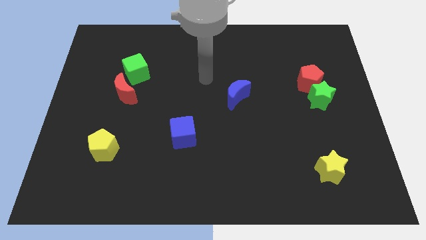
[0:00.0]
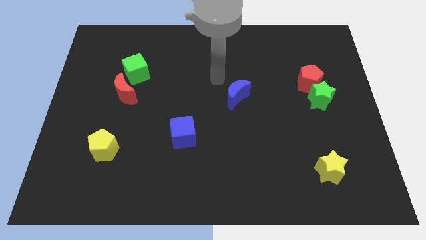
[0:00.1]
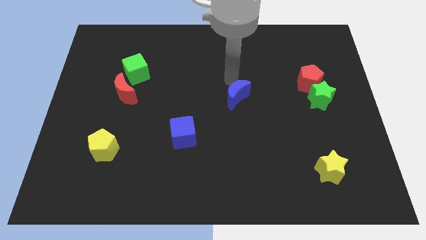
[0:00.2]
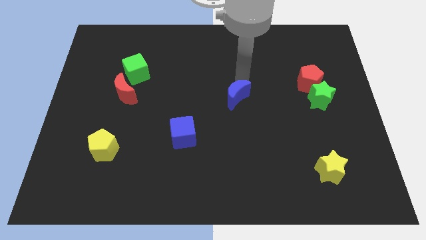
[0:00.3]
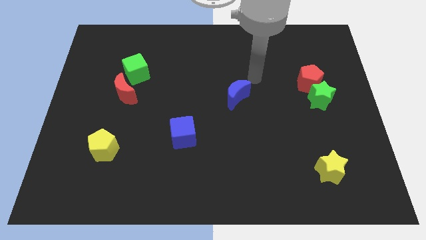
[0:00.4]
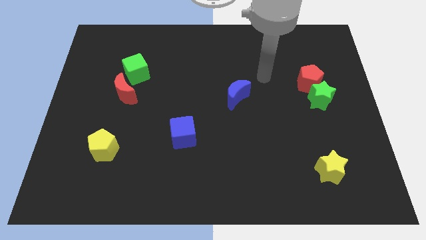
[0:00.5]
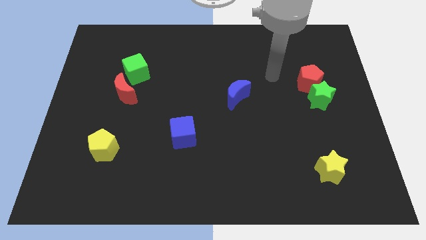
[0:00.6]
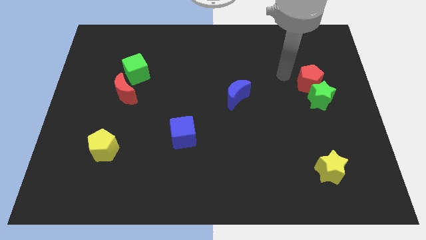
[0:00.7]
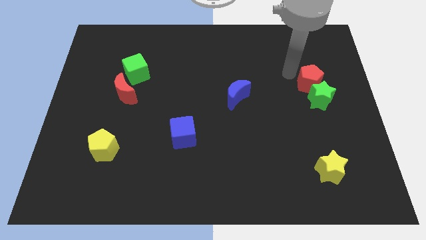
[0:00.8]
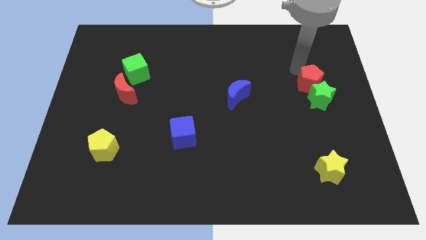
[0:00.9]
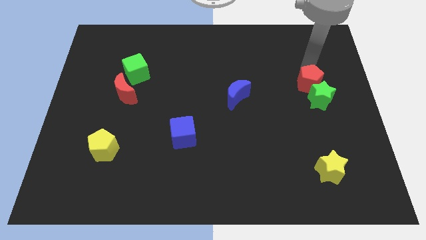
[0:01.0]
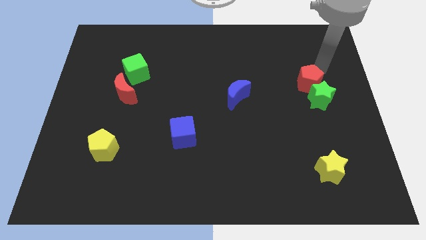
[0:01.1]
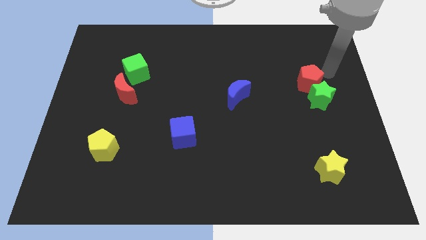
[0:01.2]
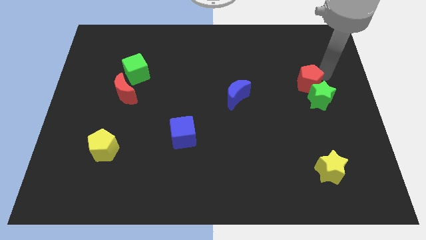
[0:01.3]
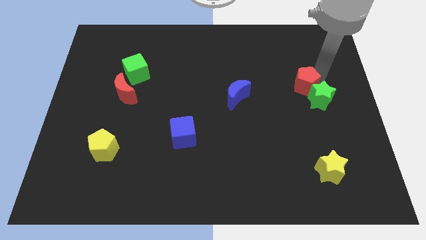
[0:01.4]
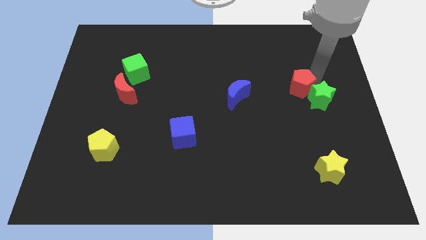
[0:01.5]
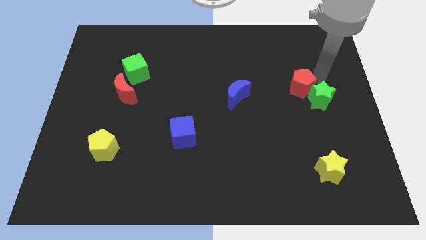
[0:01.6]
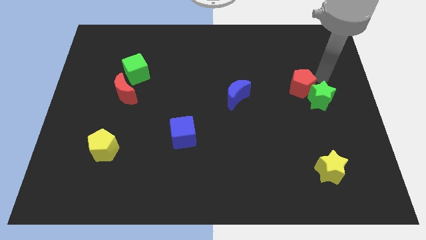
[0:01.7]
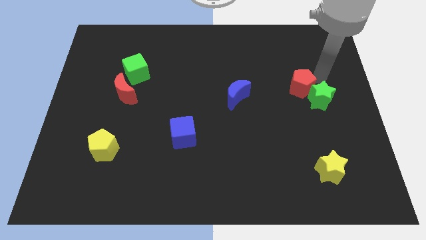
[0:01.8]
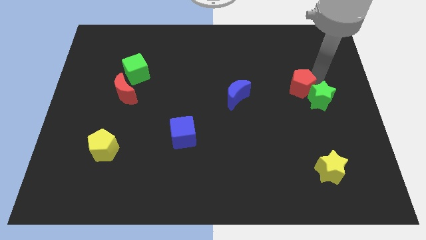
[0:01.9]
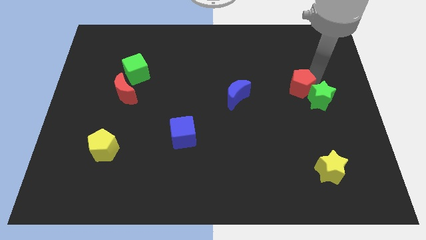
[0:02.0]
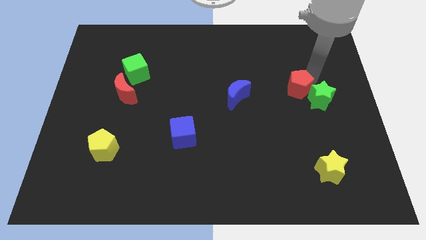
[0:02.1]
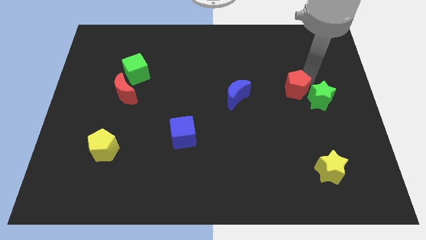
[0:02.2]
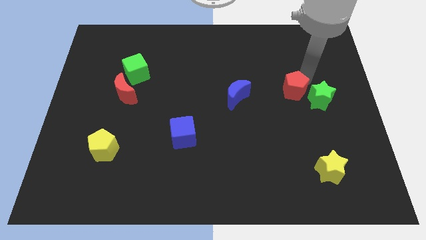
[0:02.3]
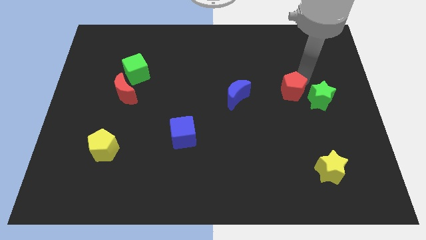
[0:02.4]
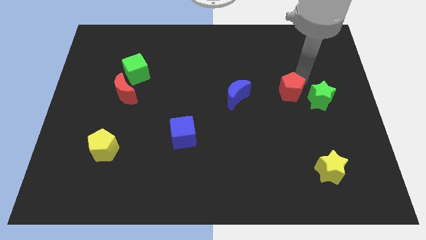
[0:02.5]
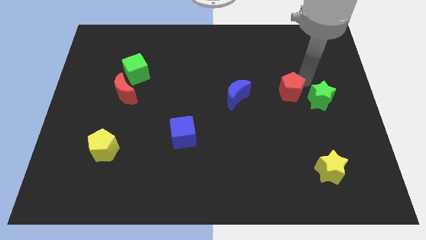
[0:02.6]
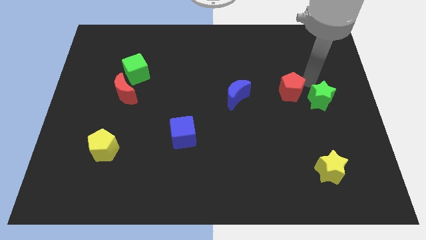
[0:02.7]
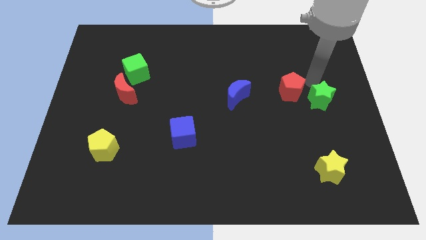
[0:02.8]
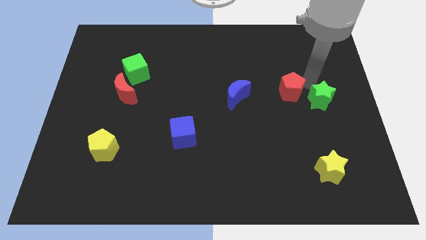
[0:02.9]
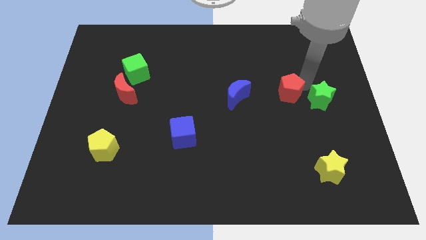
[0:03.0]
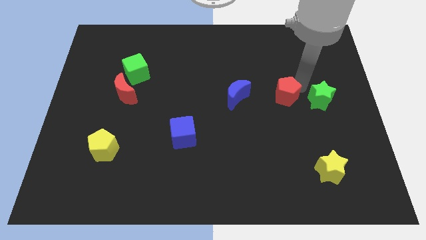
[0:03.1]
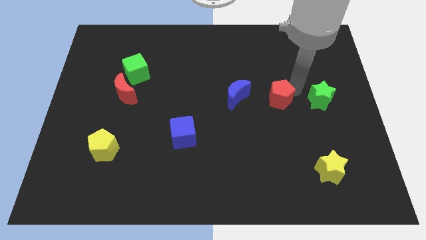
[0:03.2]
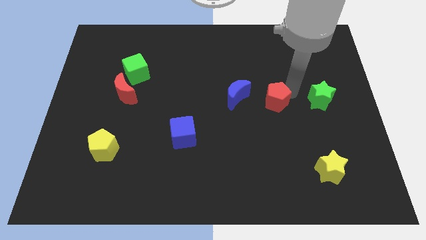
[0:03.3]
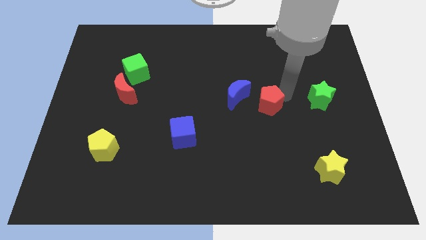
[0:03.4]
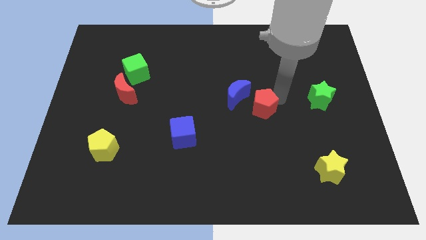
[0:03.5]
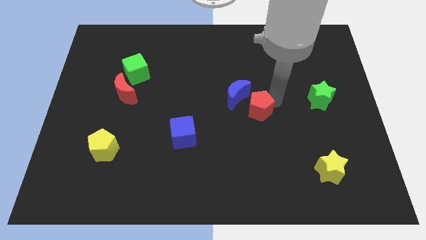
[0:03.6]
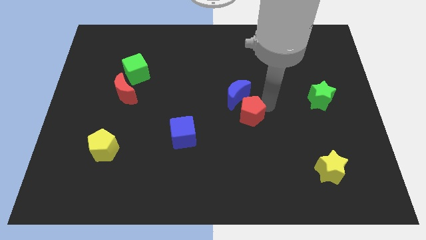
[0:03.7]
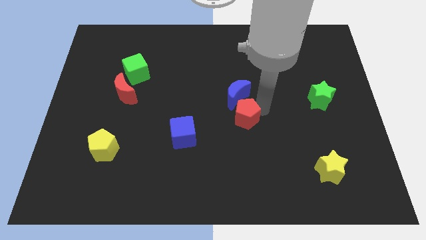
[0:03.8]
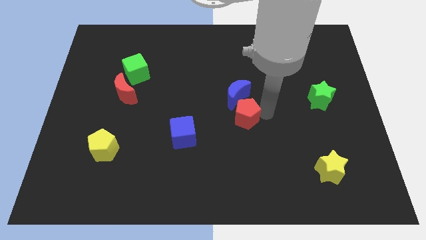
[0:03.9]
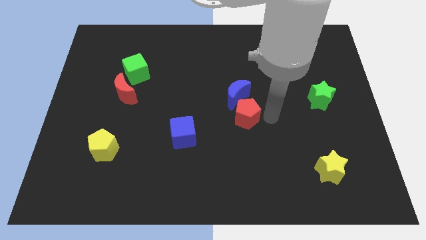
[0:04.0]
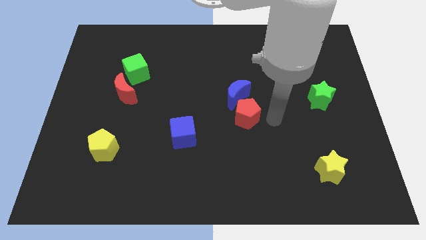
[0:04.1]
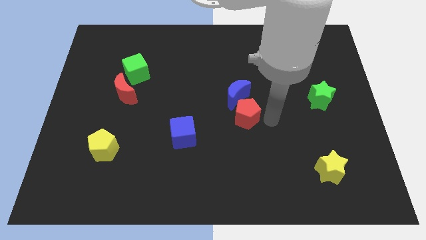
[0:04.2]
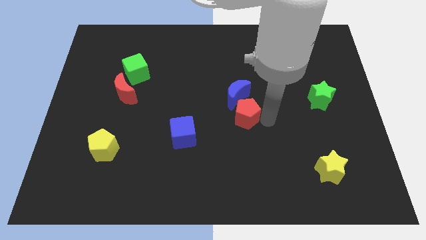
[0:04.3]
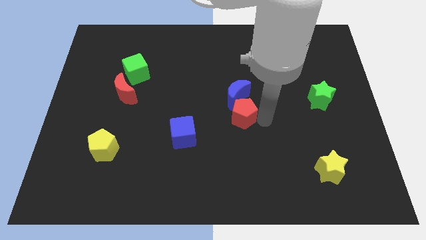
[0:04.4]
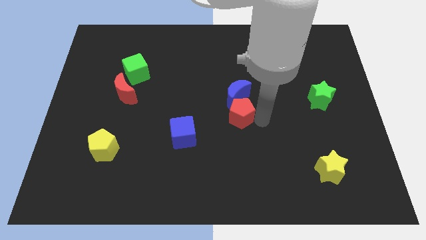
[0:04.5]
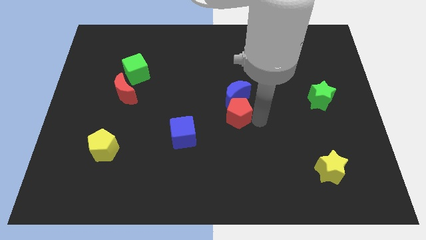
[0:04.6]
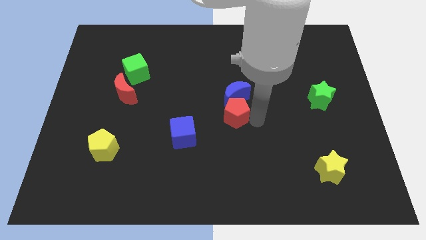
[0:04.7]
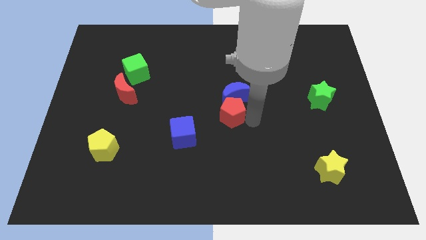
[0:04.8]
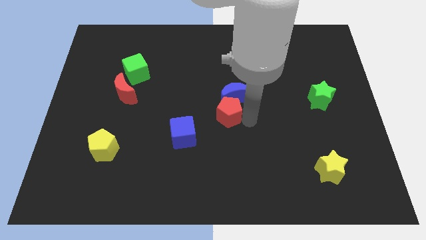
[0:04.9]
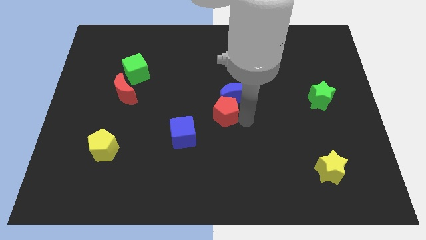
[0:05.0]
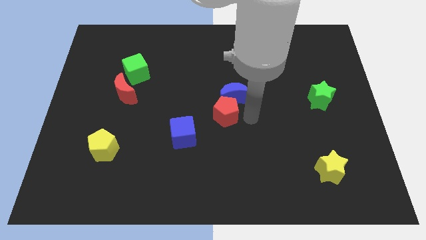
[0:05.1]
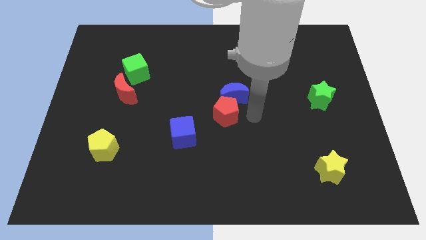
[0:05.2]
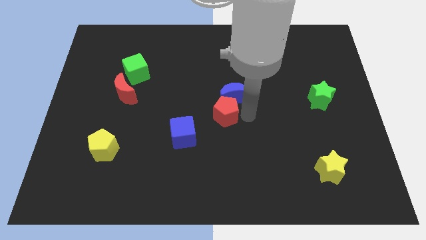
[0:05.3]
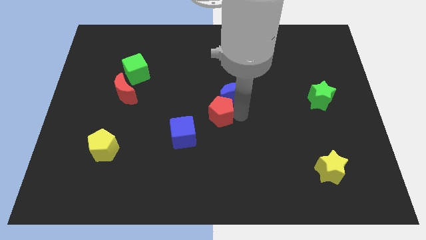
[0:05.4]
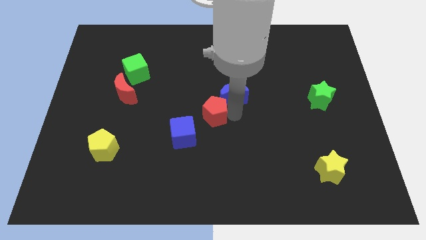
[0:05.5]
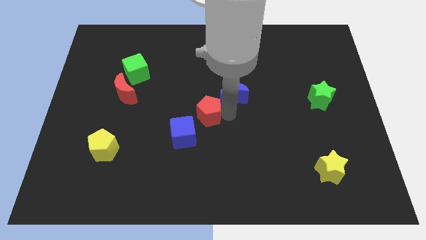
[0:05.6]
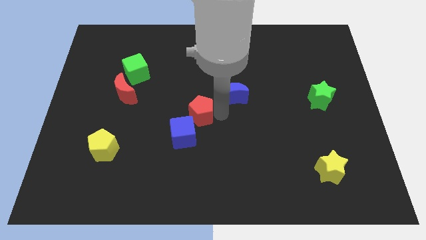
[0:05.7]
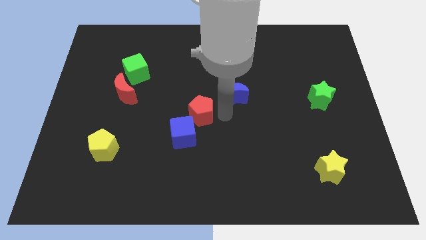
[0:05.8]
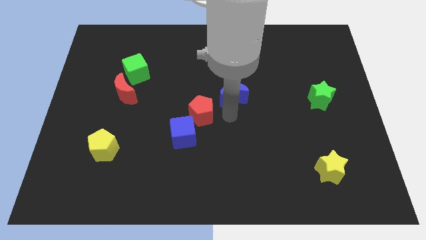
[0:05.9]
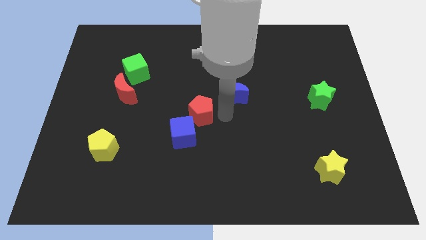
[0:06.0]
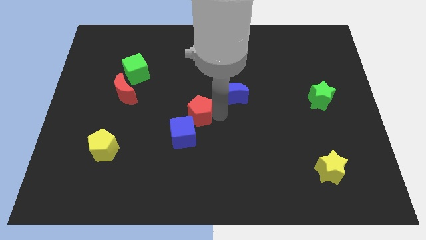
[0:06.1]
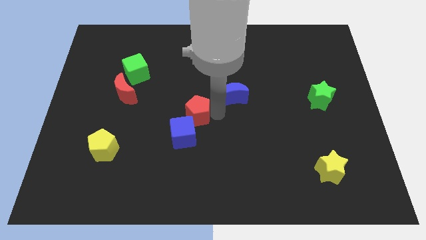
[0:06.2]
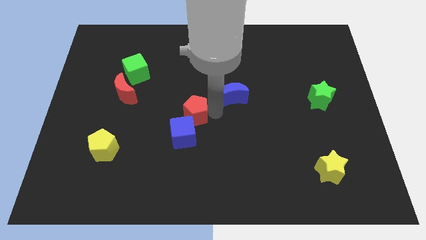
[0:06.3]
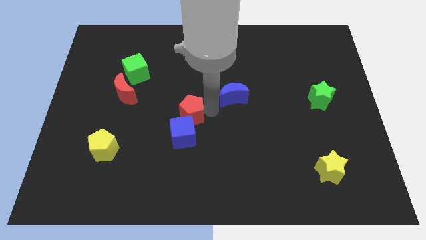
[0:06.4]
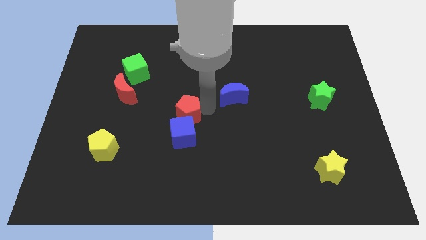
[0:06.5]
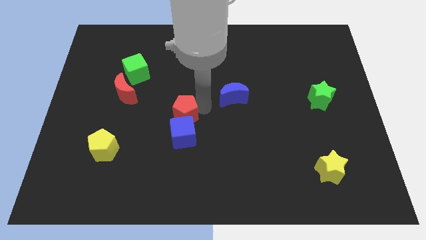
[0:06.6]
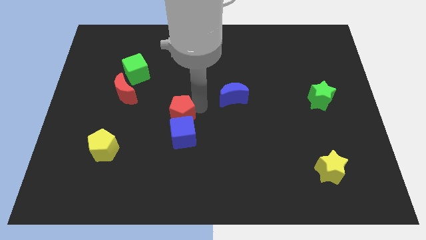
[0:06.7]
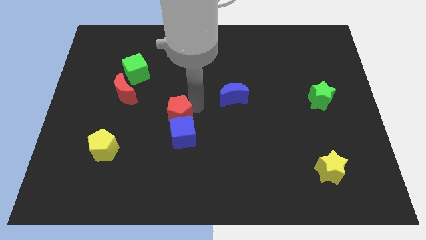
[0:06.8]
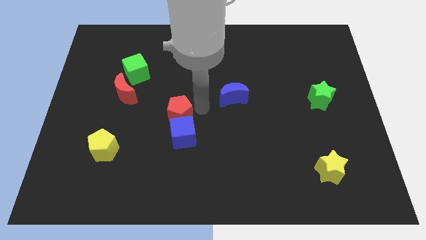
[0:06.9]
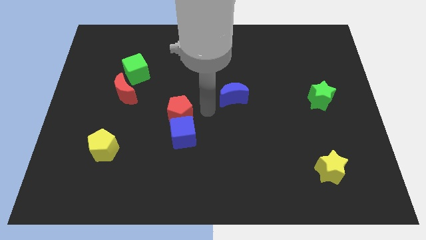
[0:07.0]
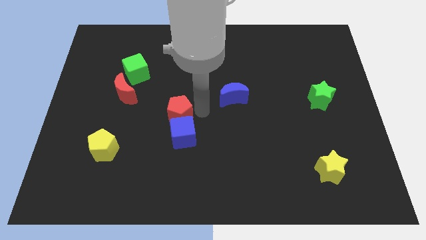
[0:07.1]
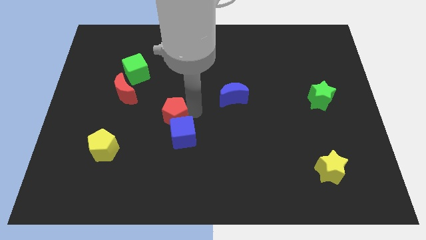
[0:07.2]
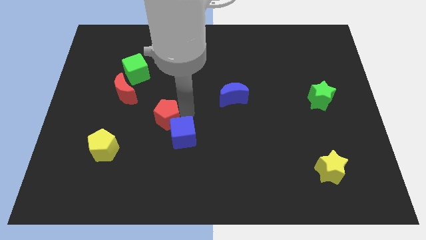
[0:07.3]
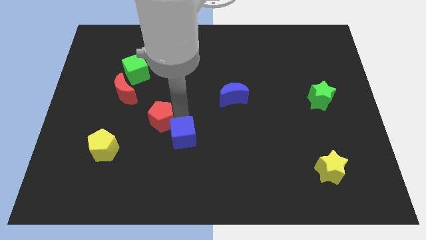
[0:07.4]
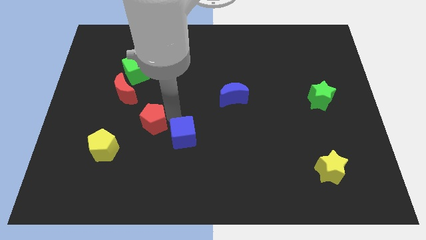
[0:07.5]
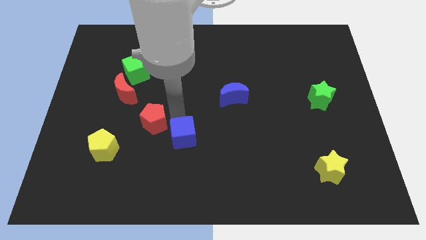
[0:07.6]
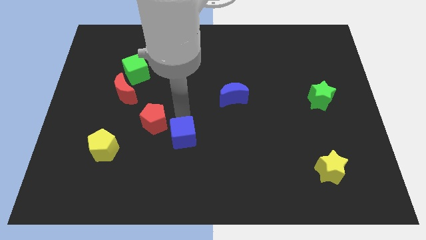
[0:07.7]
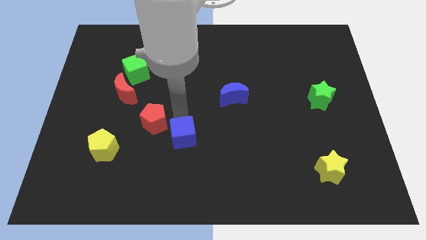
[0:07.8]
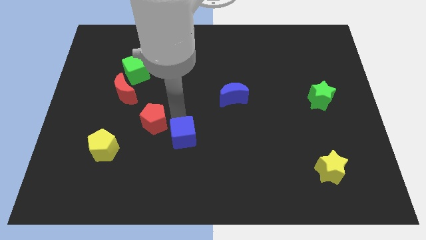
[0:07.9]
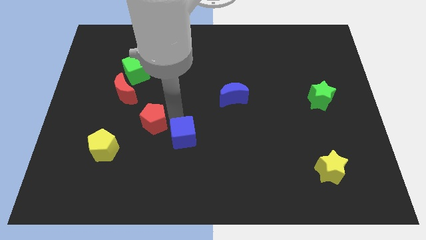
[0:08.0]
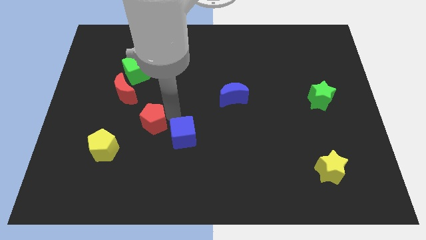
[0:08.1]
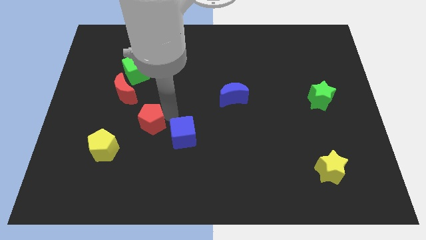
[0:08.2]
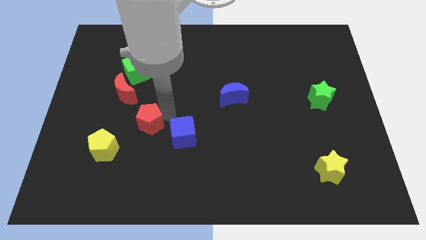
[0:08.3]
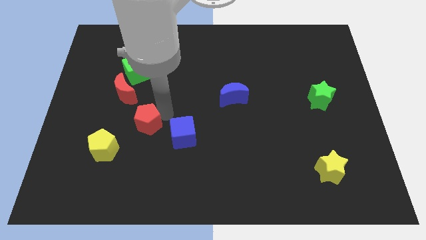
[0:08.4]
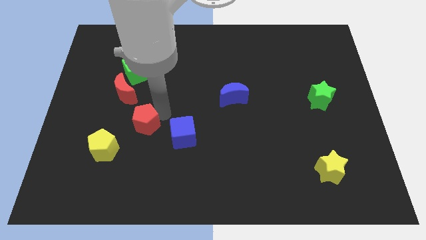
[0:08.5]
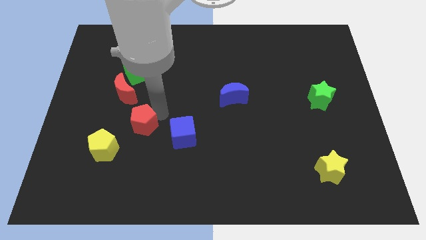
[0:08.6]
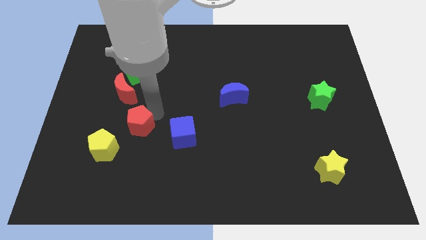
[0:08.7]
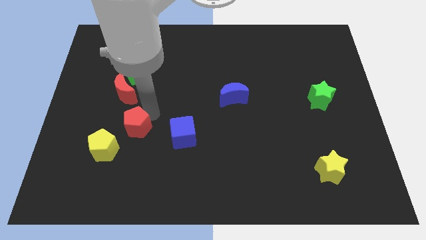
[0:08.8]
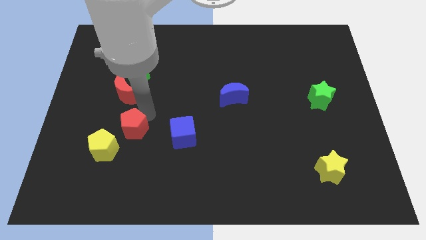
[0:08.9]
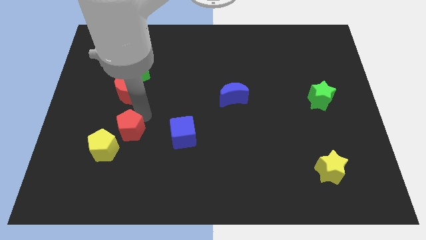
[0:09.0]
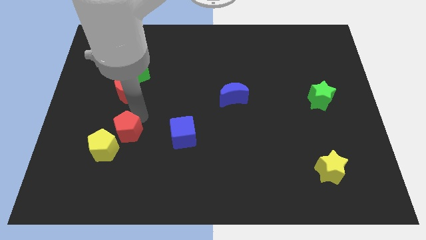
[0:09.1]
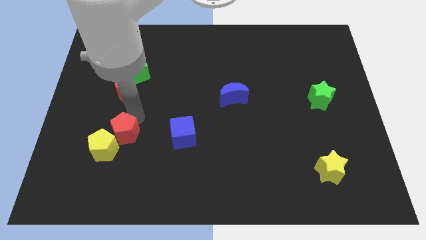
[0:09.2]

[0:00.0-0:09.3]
move the red pentagon close to the yellow pentagon
